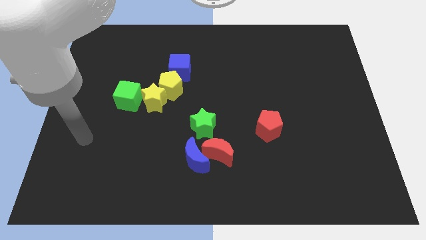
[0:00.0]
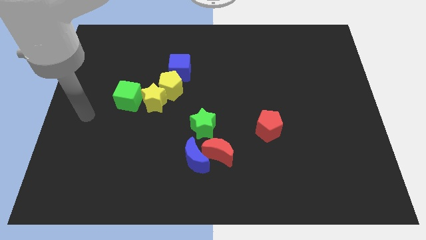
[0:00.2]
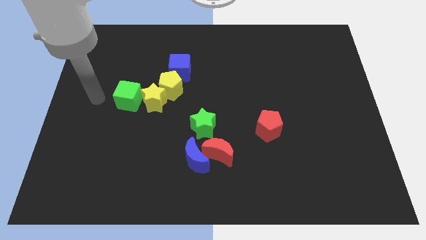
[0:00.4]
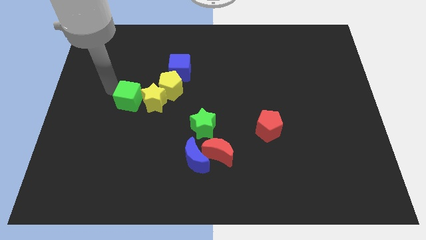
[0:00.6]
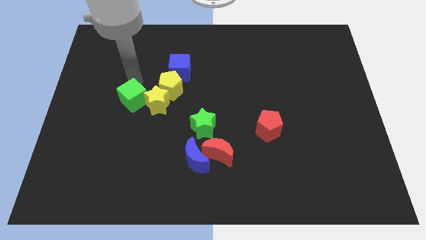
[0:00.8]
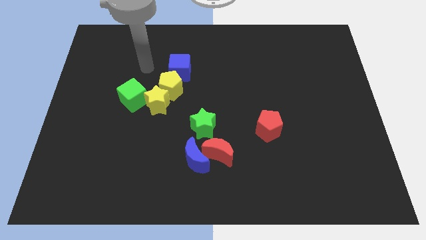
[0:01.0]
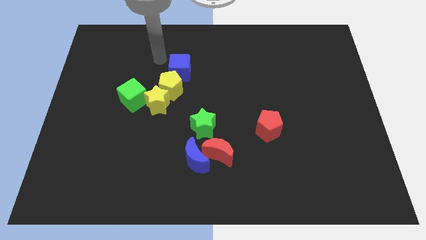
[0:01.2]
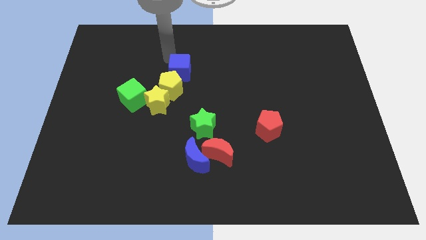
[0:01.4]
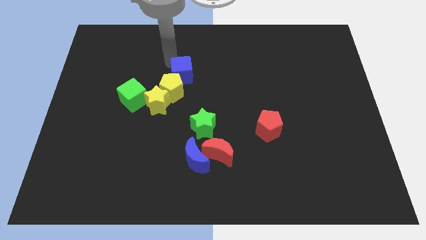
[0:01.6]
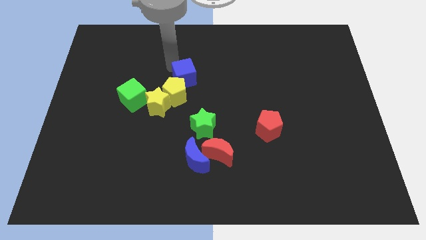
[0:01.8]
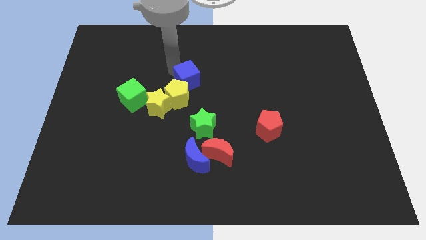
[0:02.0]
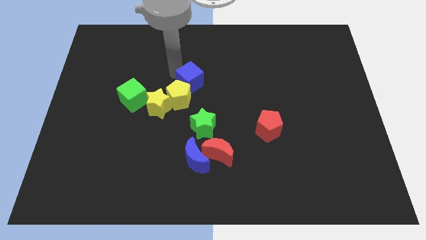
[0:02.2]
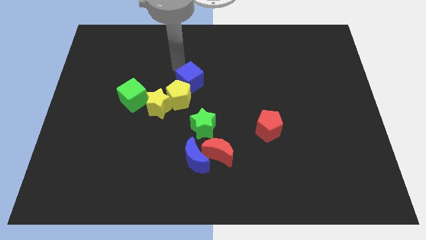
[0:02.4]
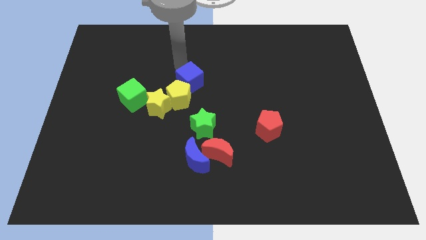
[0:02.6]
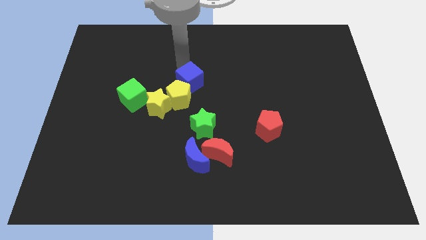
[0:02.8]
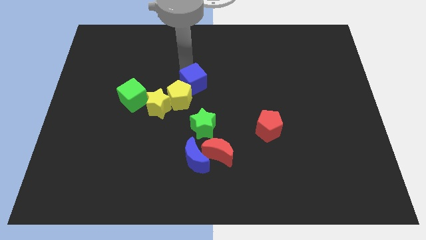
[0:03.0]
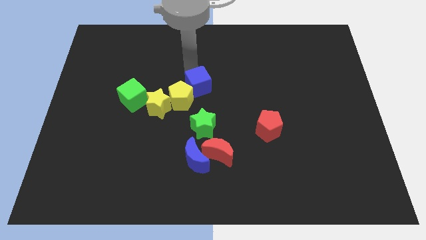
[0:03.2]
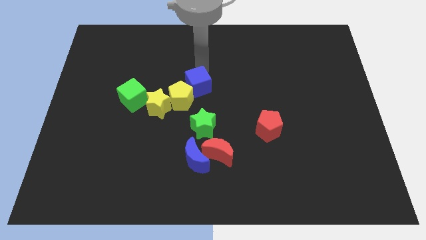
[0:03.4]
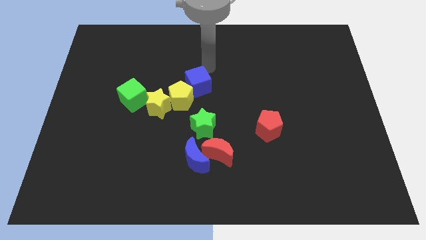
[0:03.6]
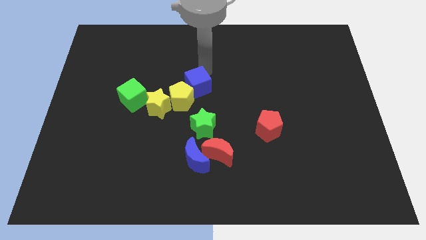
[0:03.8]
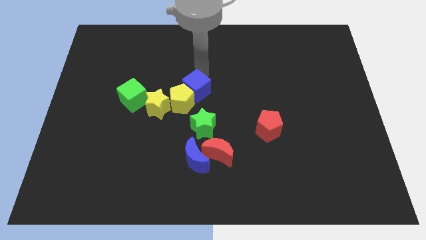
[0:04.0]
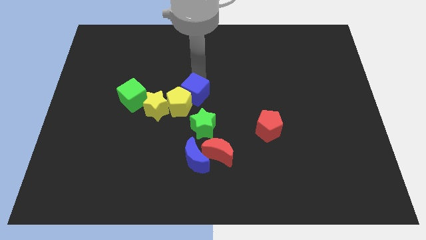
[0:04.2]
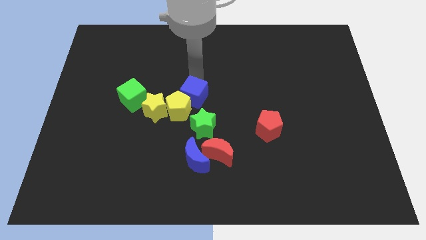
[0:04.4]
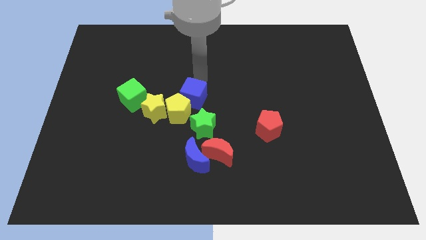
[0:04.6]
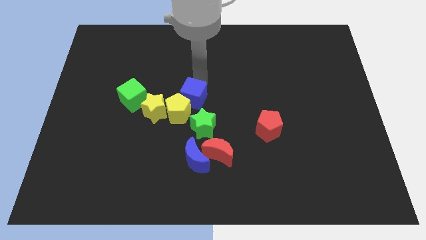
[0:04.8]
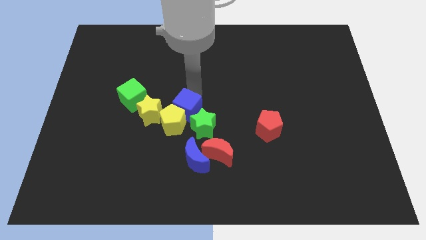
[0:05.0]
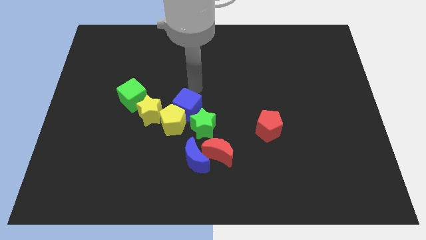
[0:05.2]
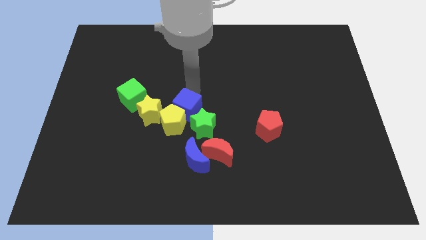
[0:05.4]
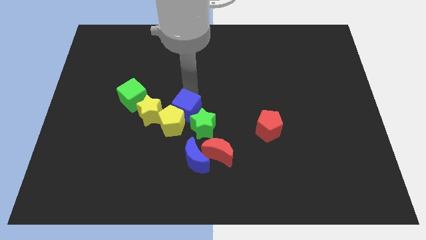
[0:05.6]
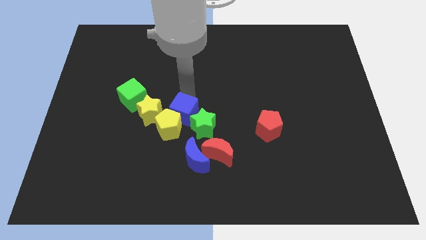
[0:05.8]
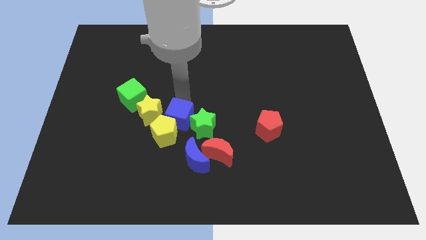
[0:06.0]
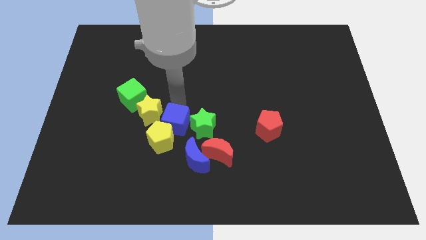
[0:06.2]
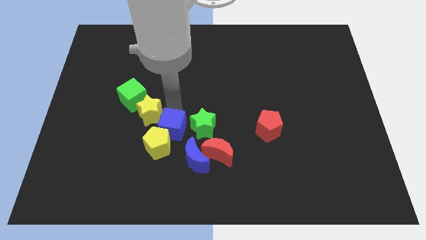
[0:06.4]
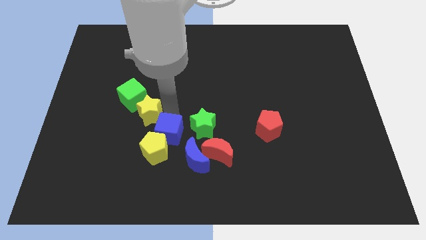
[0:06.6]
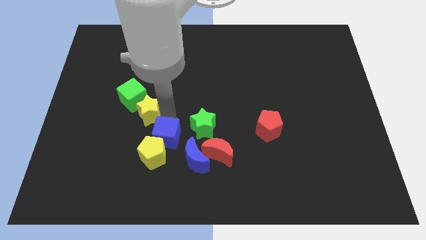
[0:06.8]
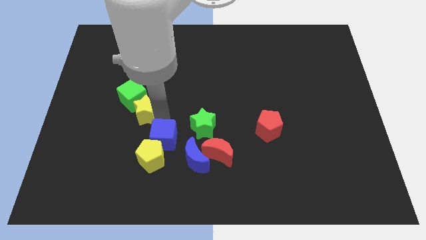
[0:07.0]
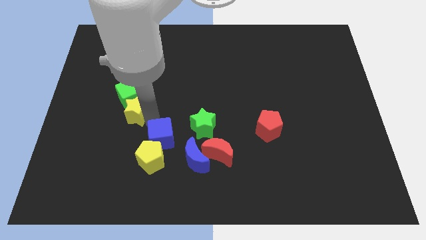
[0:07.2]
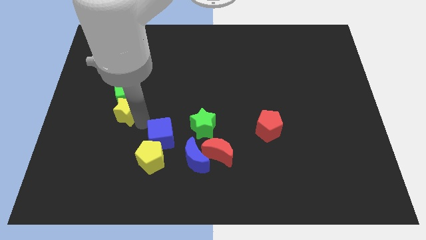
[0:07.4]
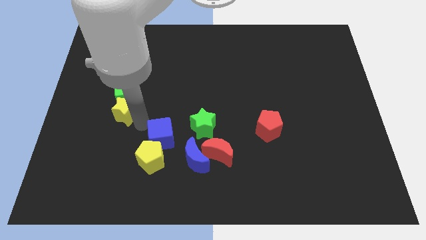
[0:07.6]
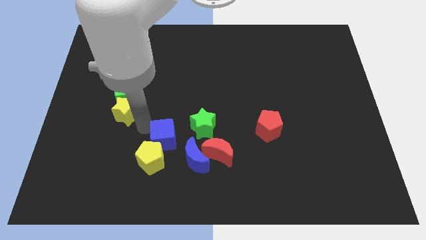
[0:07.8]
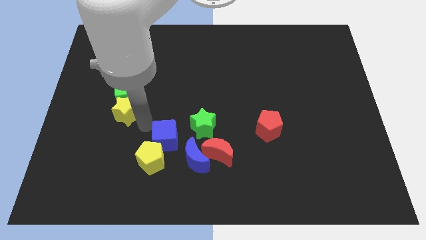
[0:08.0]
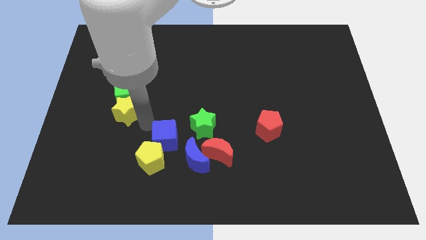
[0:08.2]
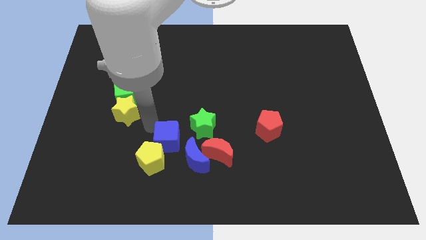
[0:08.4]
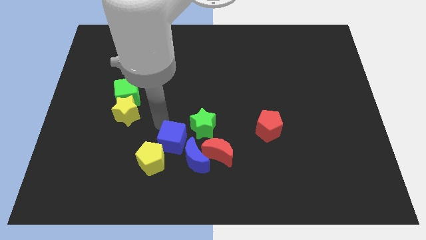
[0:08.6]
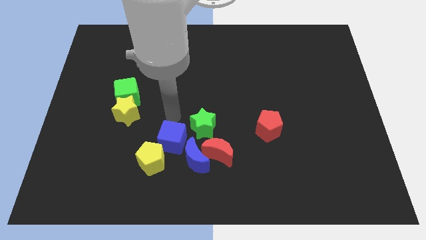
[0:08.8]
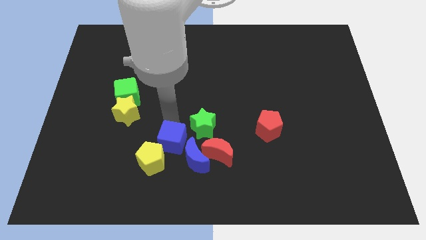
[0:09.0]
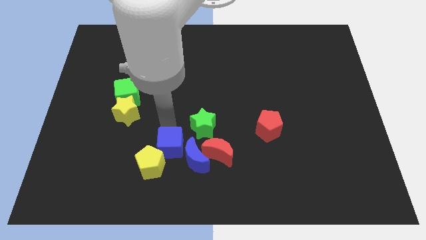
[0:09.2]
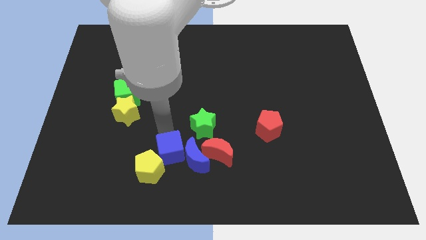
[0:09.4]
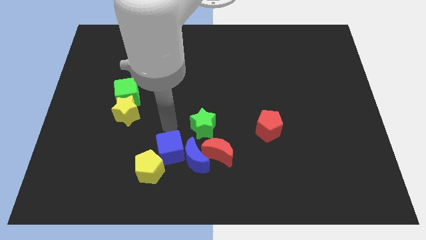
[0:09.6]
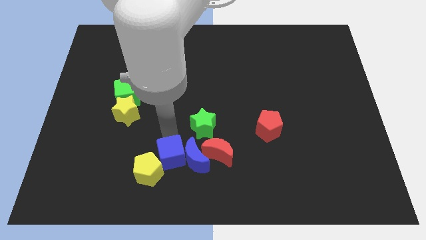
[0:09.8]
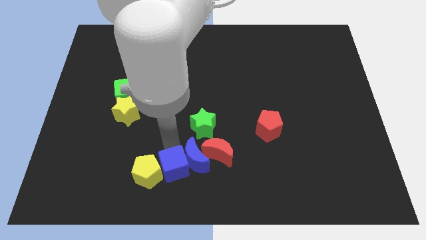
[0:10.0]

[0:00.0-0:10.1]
slide the blue cube to the bottom side
